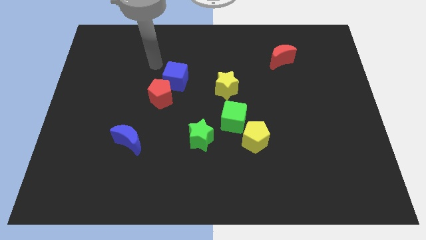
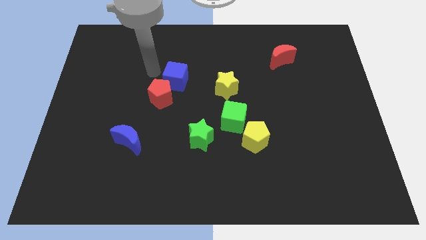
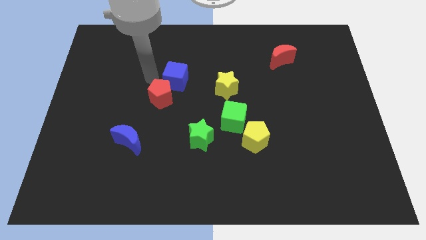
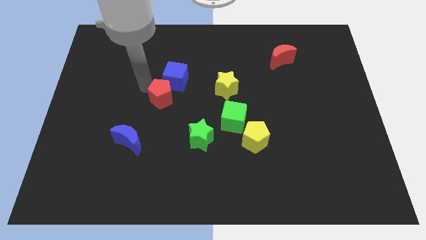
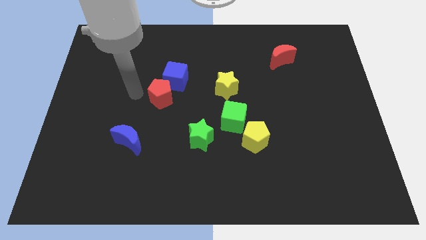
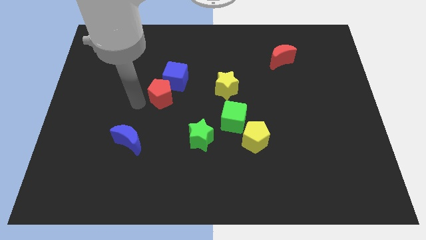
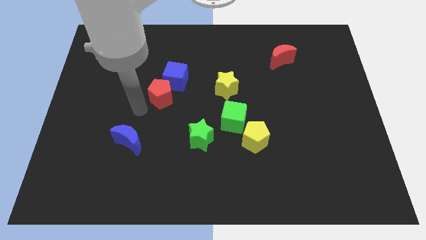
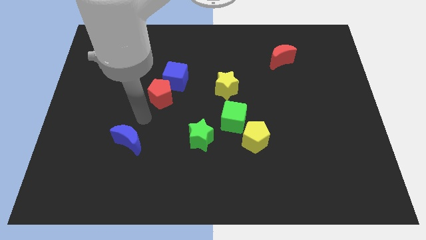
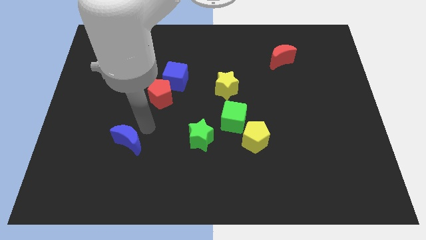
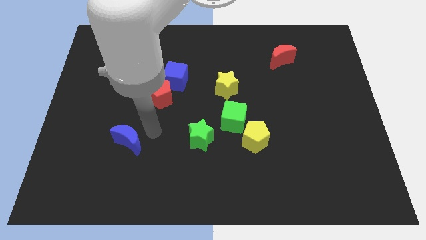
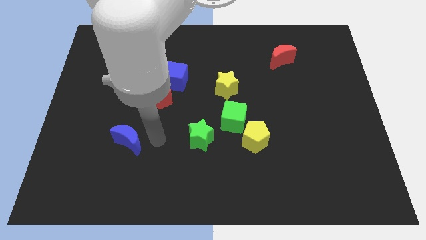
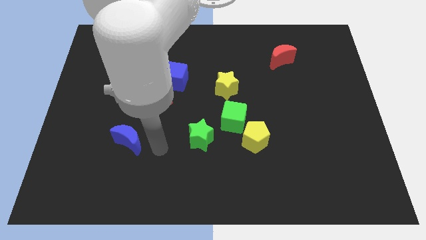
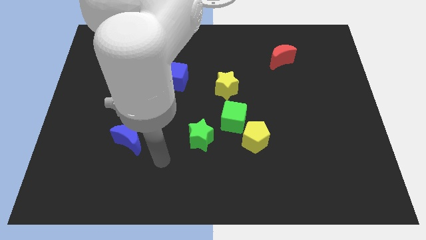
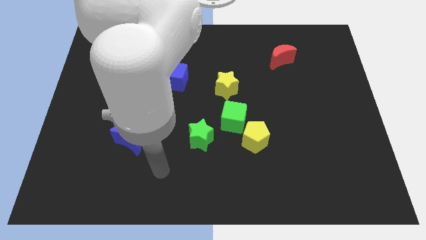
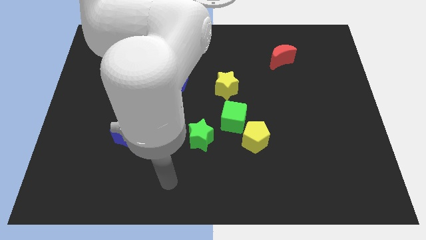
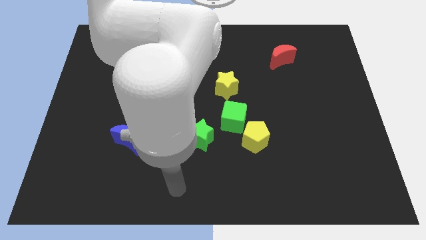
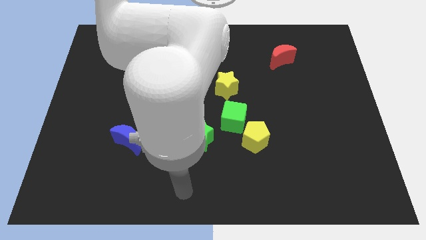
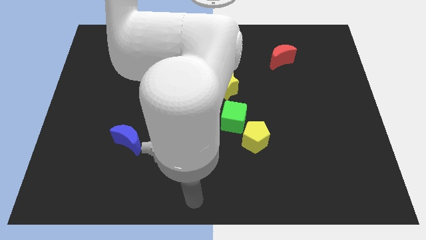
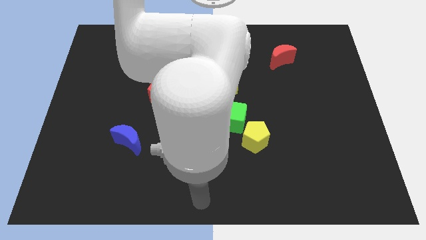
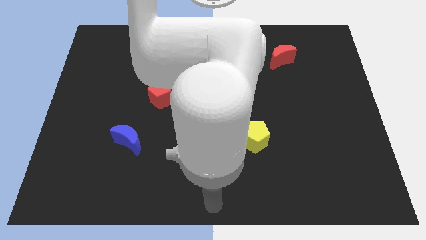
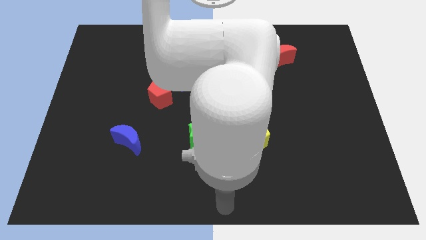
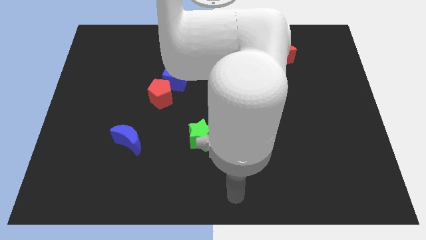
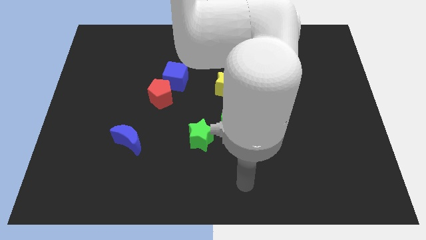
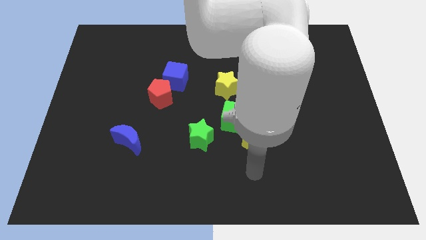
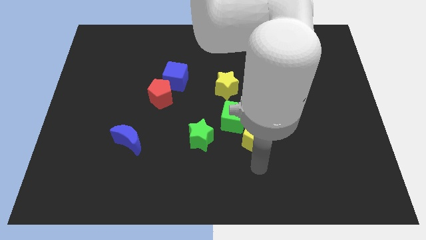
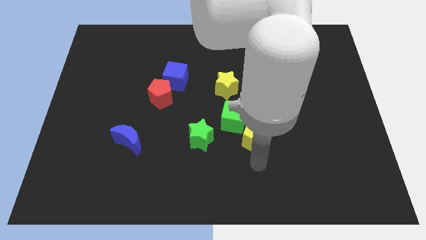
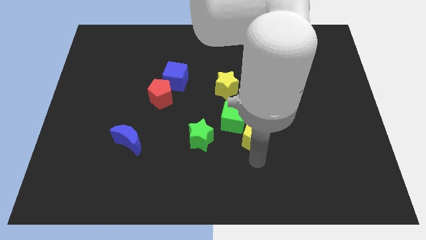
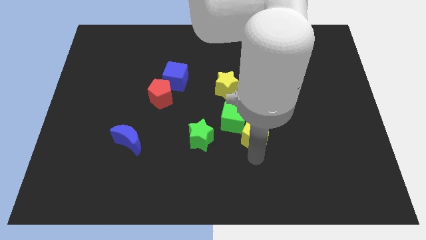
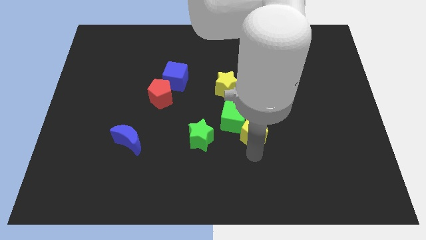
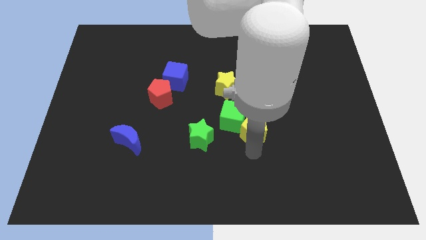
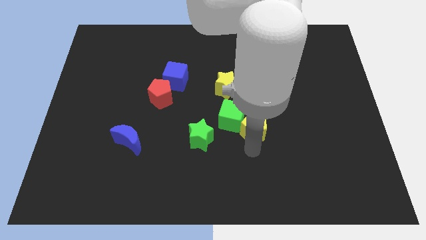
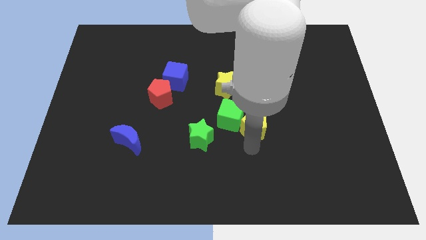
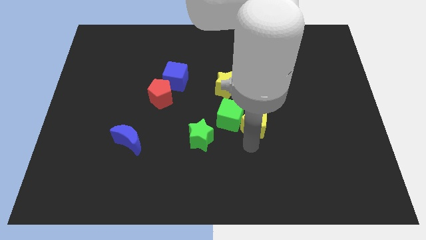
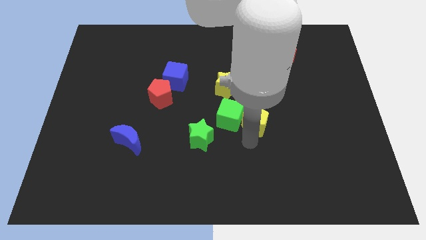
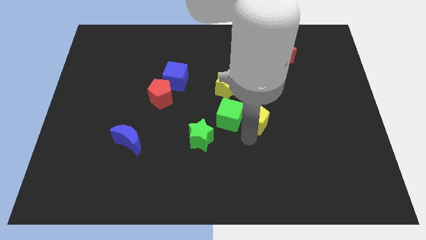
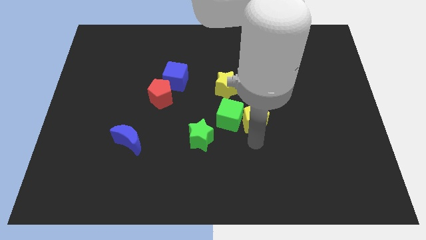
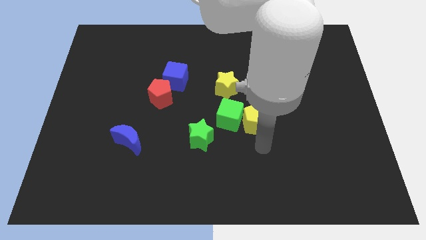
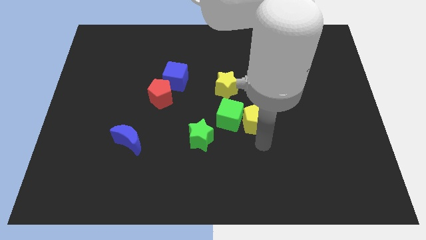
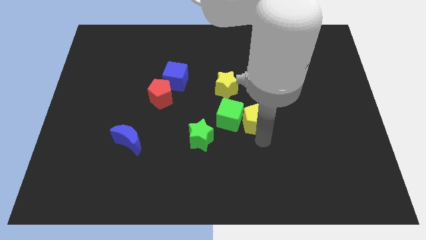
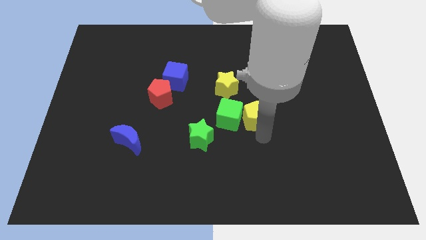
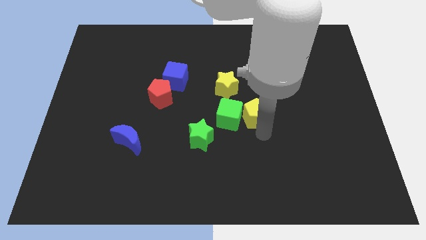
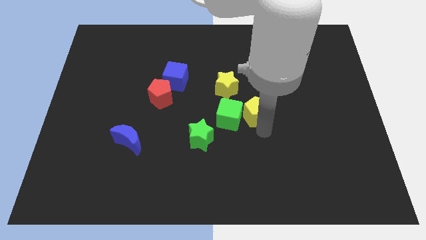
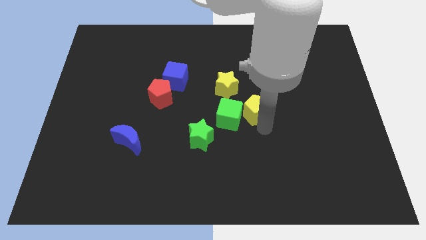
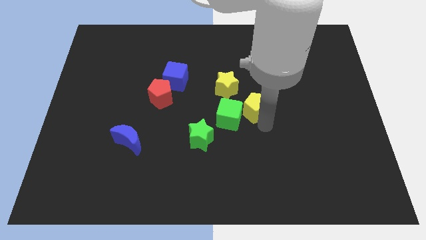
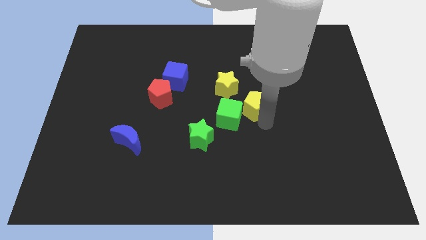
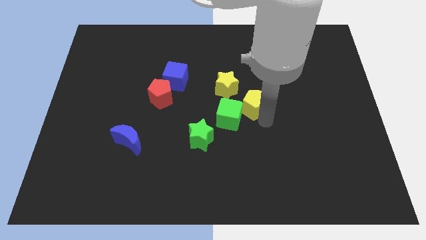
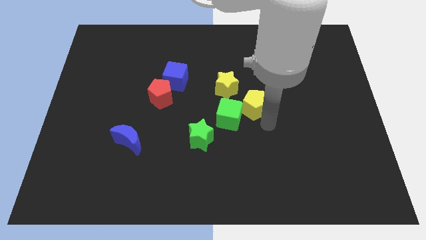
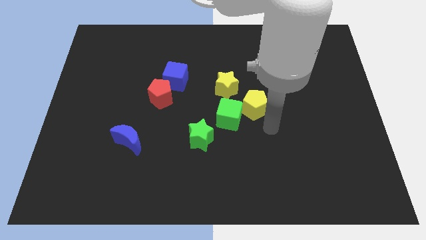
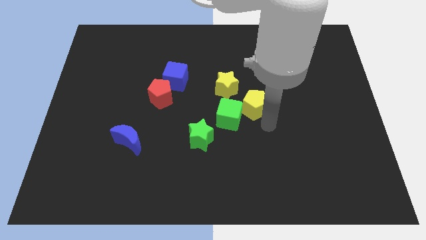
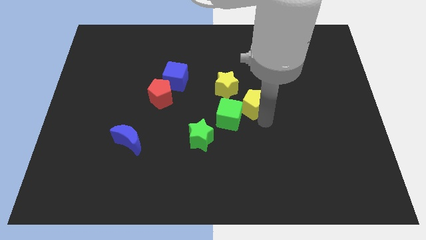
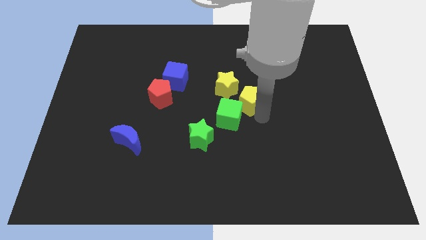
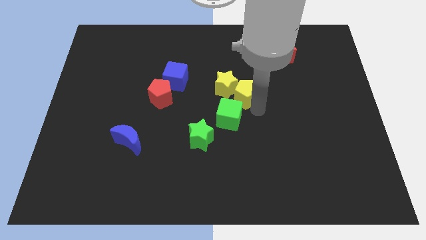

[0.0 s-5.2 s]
slide the yellow pentagon close to the yellow star

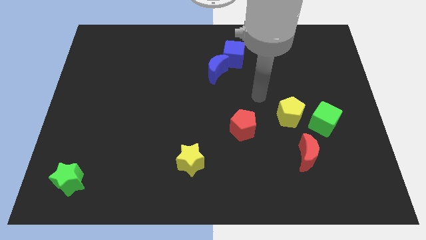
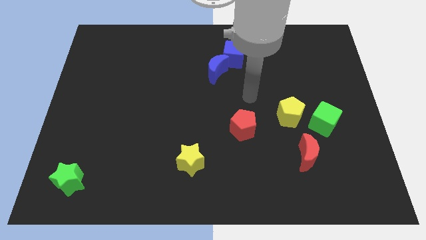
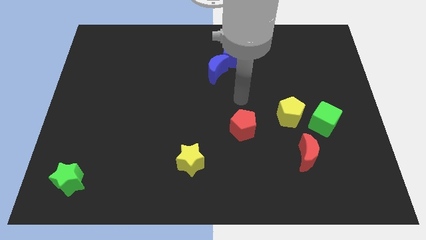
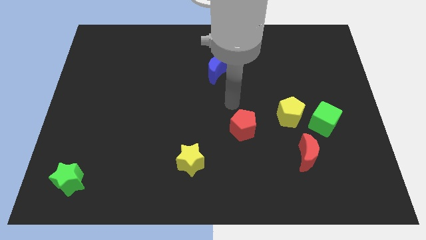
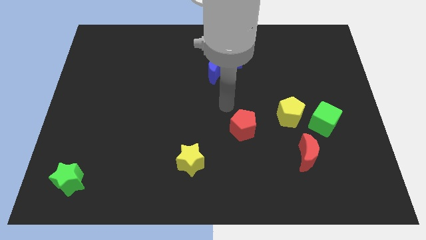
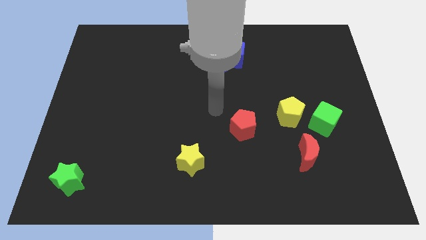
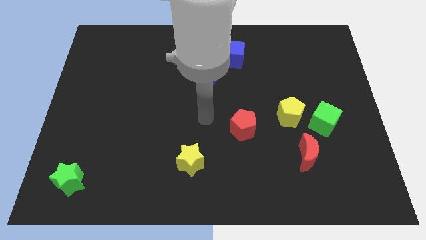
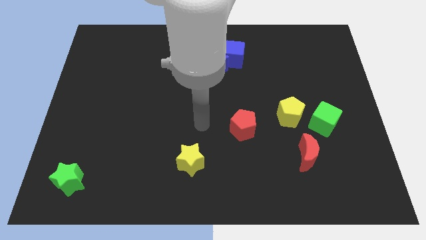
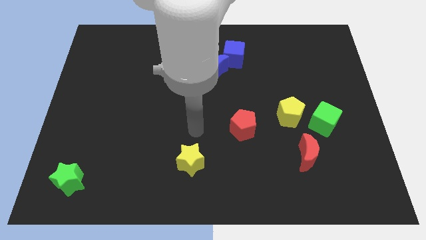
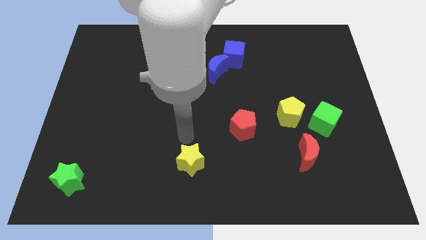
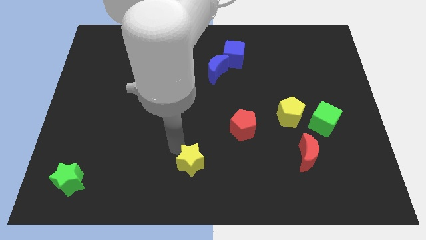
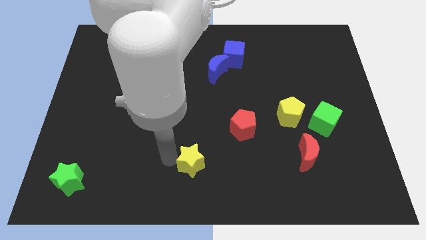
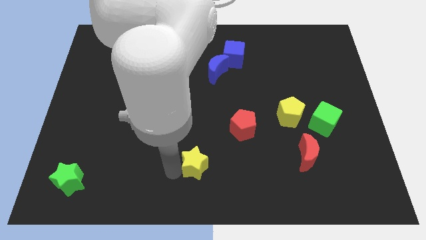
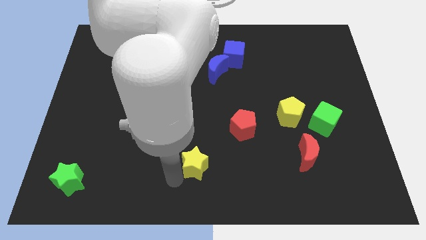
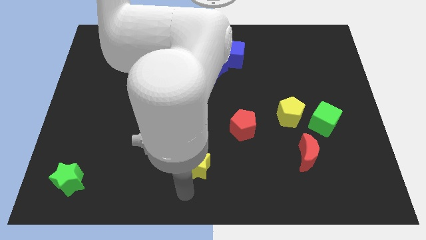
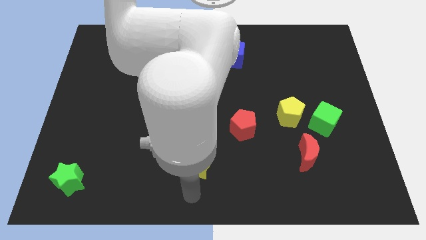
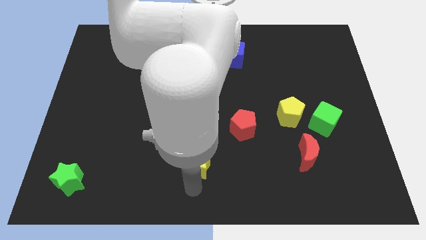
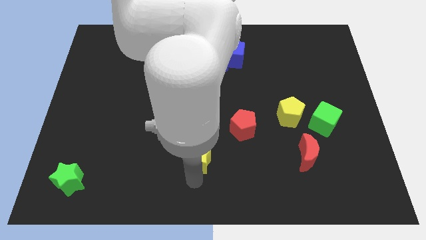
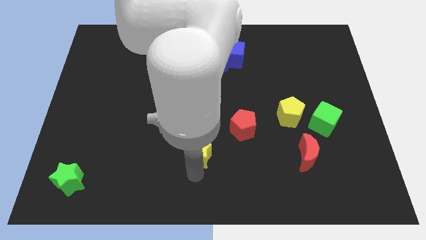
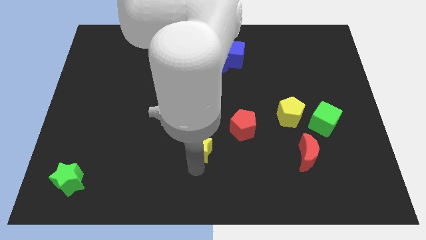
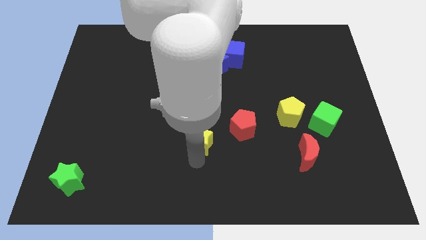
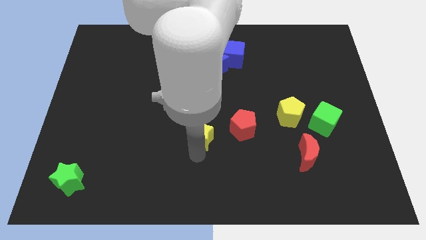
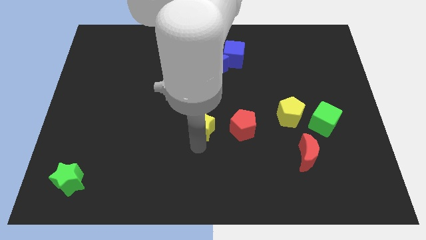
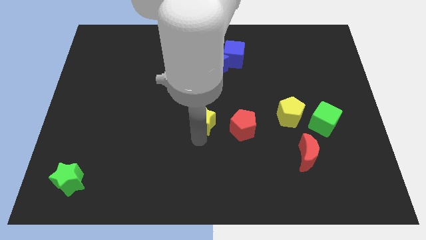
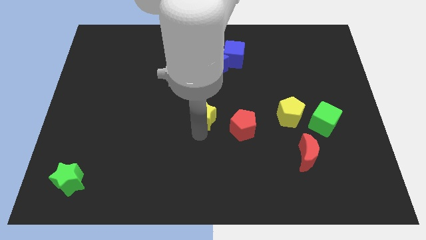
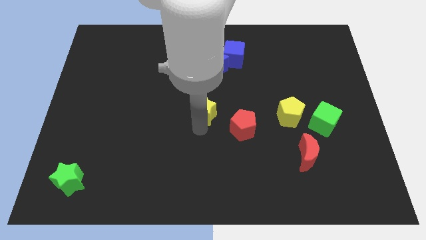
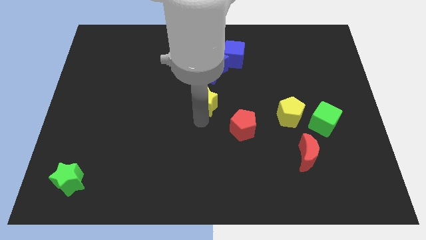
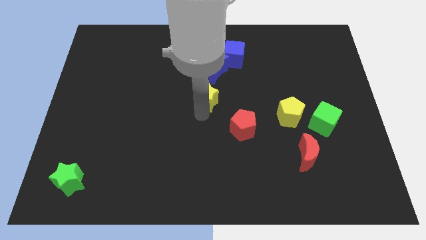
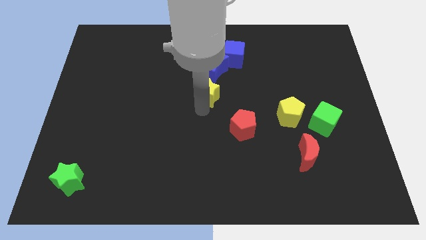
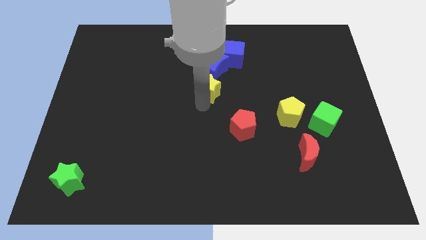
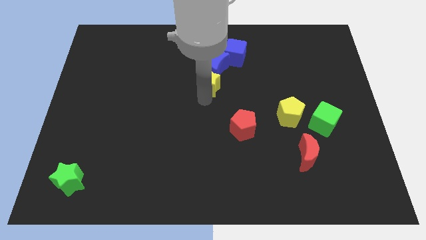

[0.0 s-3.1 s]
move the yellow star to the blue moon
